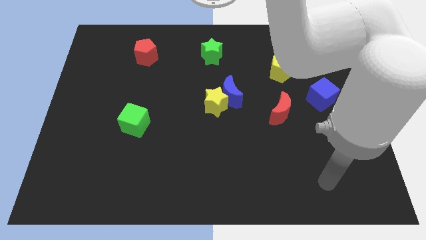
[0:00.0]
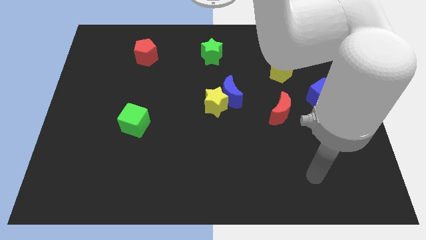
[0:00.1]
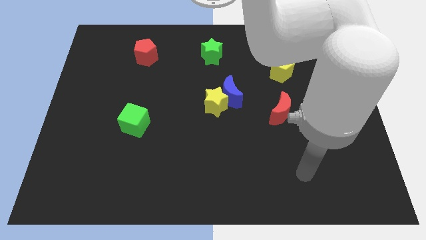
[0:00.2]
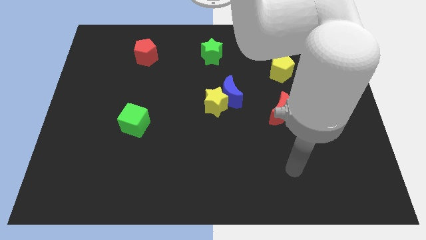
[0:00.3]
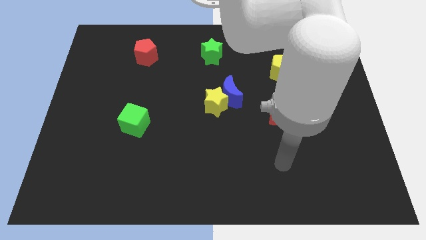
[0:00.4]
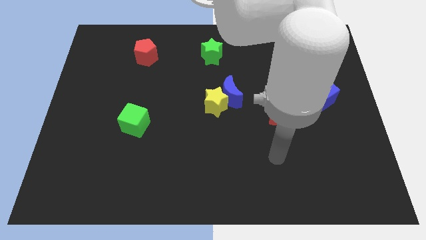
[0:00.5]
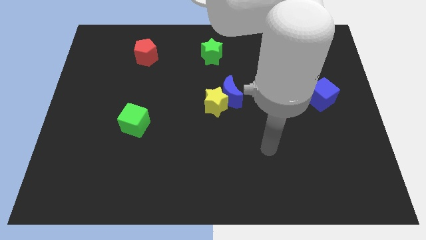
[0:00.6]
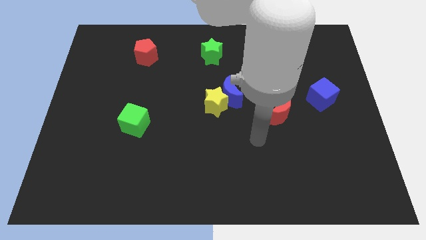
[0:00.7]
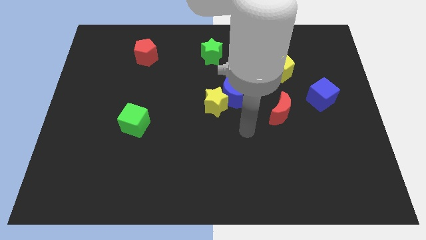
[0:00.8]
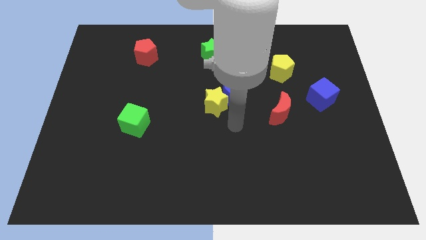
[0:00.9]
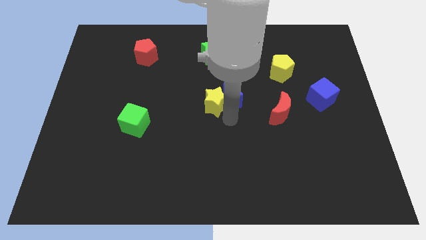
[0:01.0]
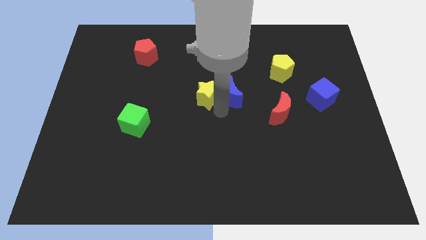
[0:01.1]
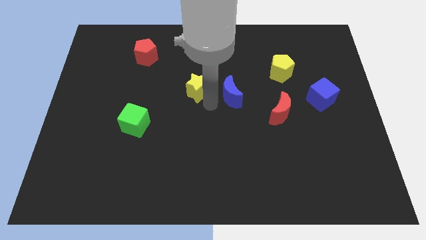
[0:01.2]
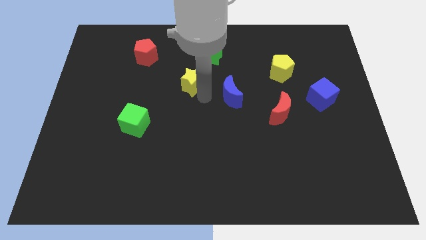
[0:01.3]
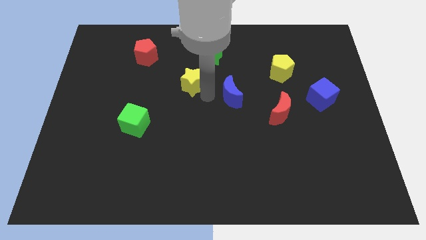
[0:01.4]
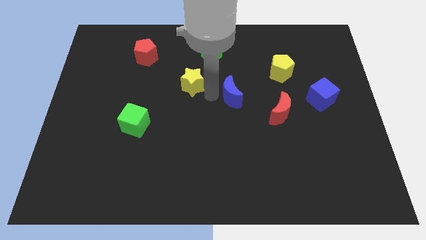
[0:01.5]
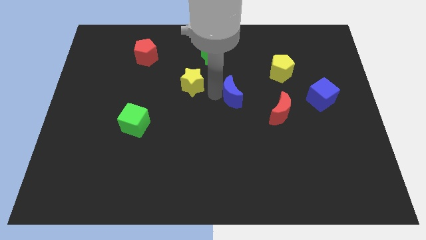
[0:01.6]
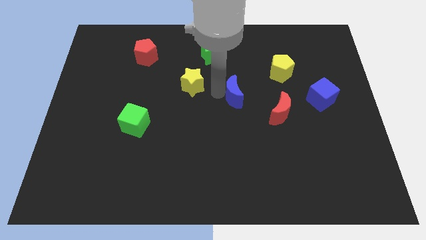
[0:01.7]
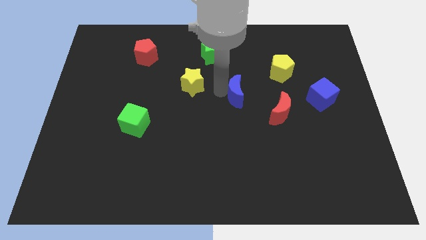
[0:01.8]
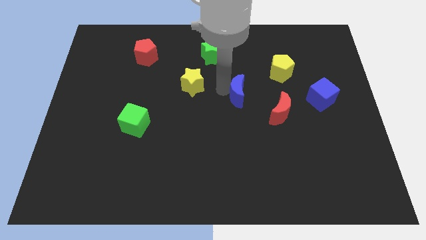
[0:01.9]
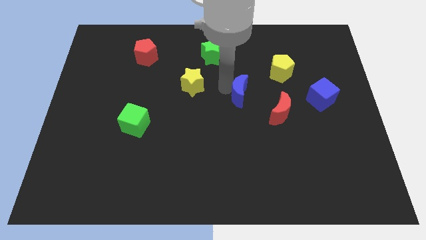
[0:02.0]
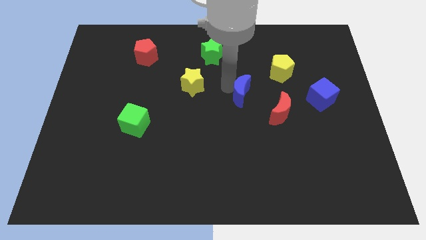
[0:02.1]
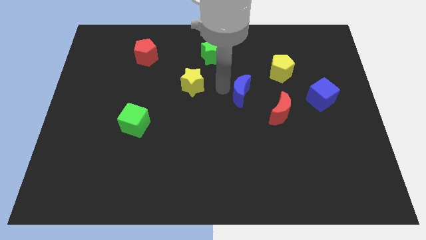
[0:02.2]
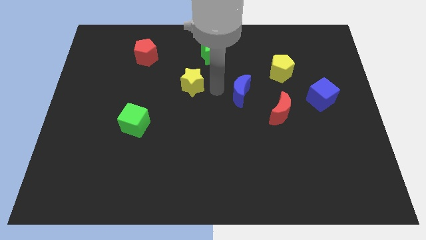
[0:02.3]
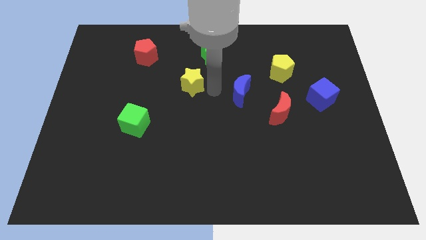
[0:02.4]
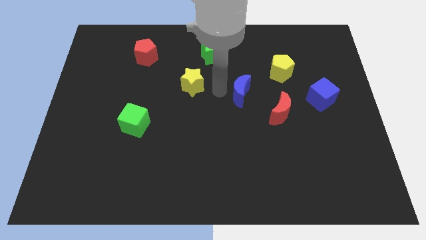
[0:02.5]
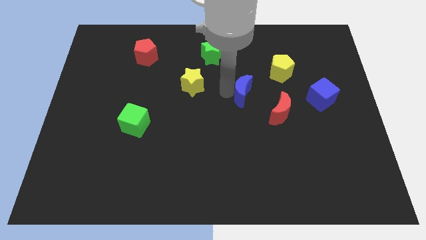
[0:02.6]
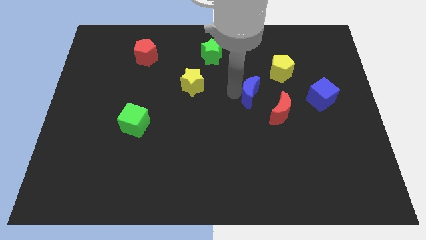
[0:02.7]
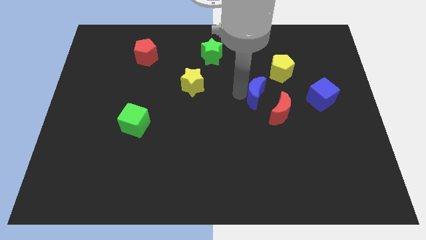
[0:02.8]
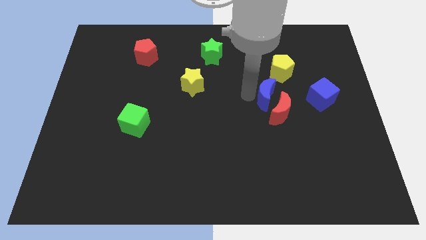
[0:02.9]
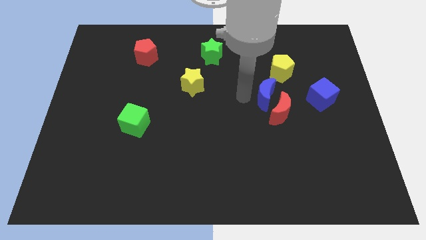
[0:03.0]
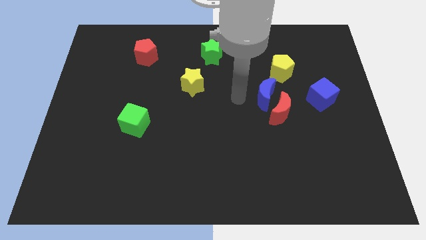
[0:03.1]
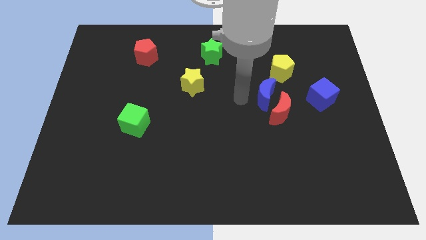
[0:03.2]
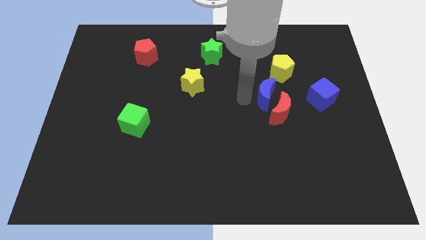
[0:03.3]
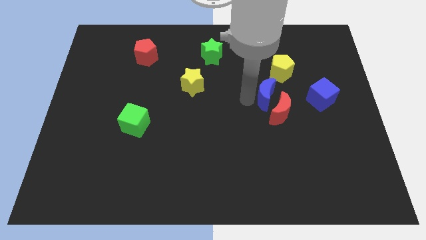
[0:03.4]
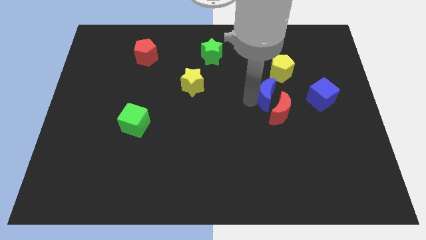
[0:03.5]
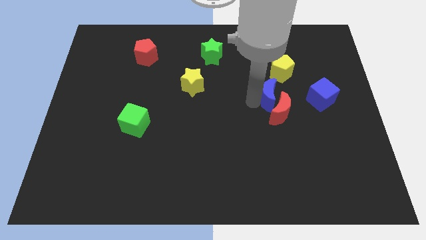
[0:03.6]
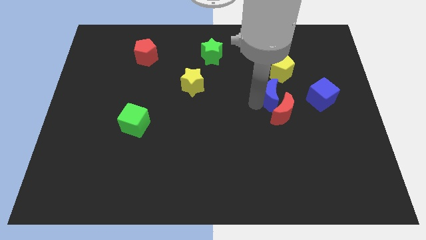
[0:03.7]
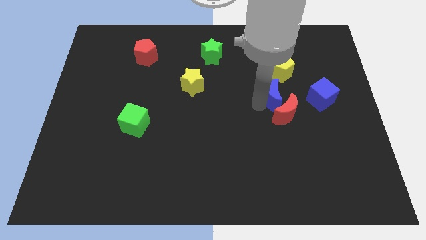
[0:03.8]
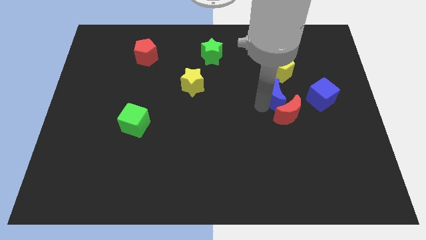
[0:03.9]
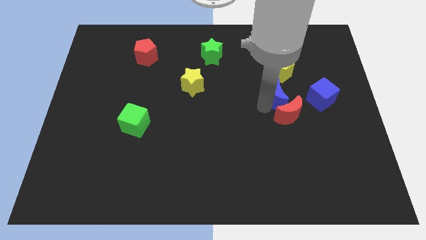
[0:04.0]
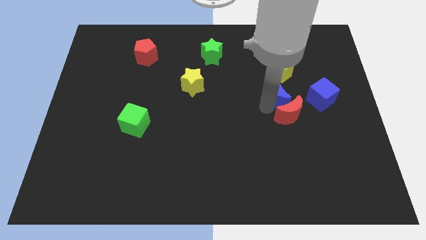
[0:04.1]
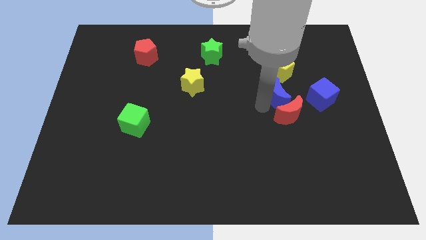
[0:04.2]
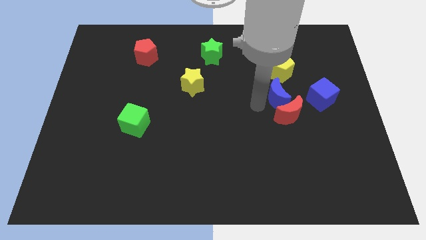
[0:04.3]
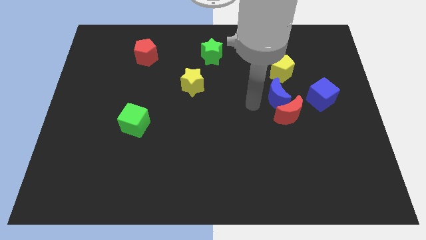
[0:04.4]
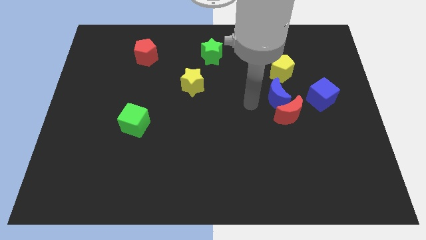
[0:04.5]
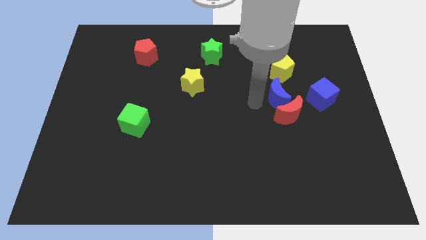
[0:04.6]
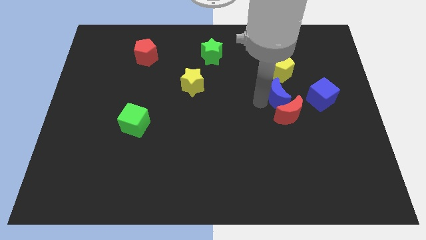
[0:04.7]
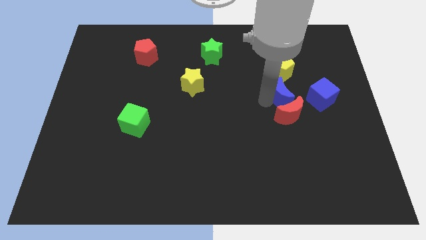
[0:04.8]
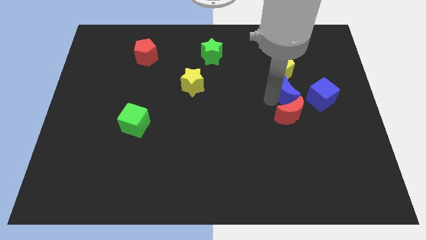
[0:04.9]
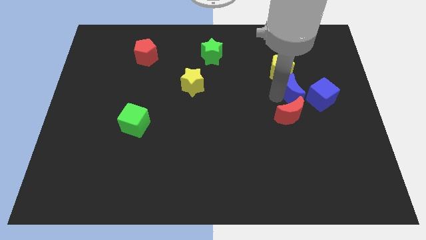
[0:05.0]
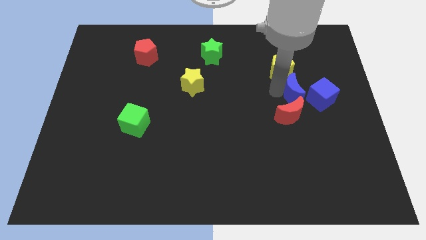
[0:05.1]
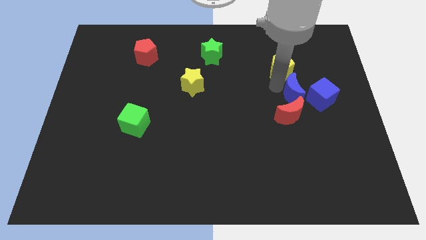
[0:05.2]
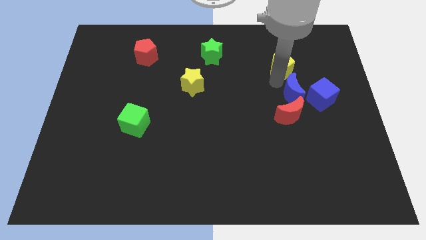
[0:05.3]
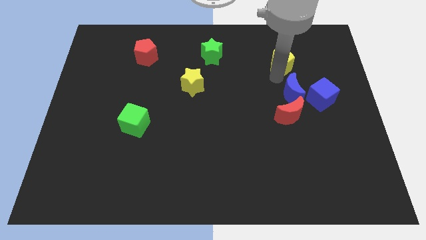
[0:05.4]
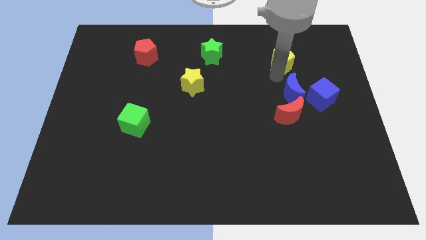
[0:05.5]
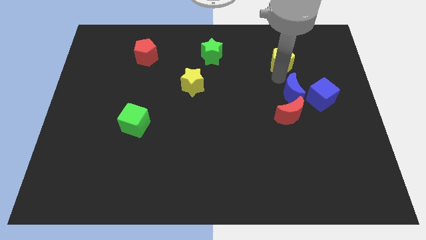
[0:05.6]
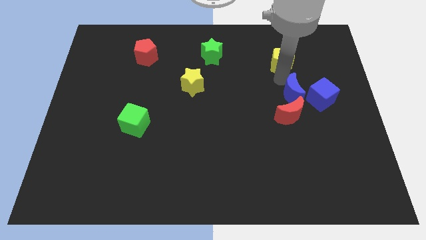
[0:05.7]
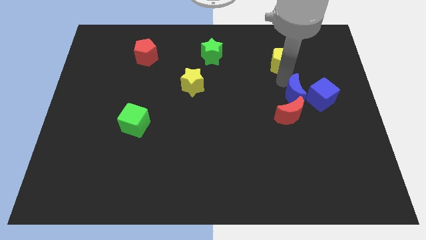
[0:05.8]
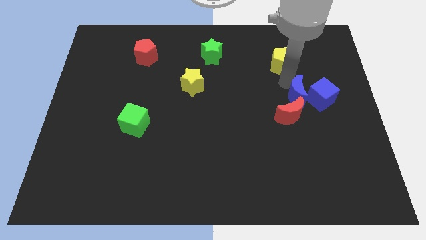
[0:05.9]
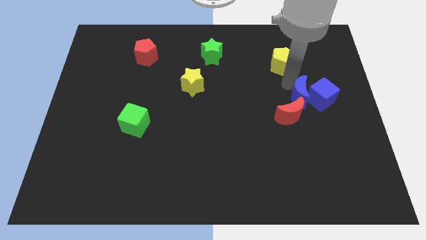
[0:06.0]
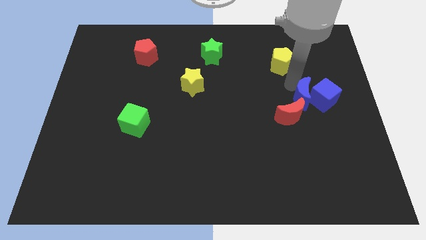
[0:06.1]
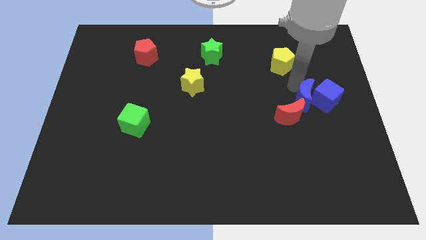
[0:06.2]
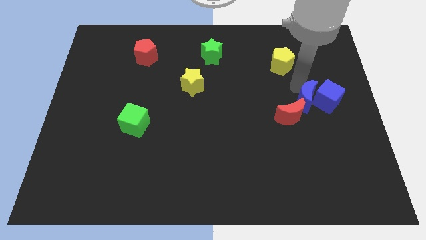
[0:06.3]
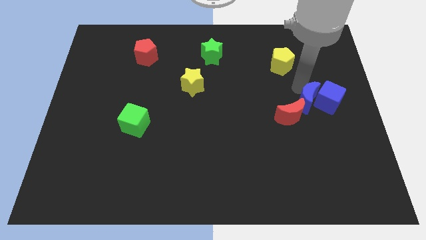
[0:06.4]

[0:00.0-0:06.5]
push the blue moon to the right side of the red moon

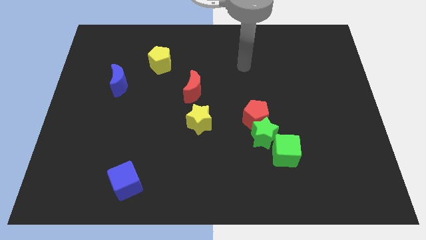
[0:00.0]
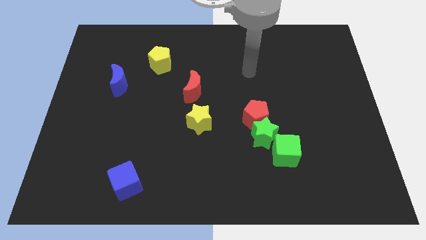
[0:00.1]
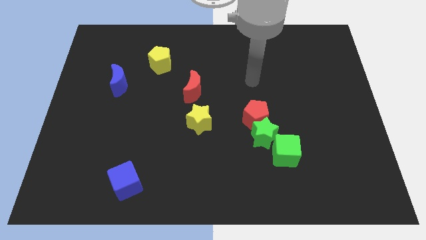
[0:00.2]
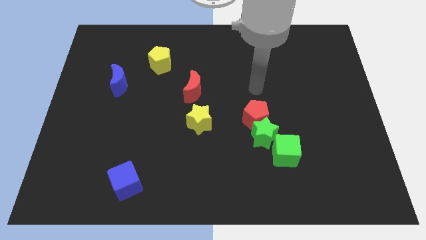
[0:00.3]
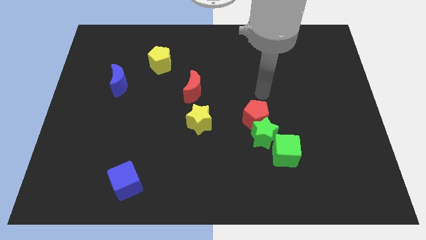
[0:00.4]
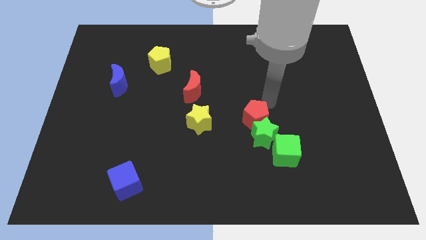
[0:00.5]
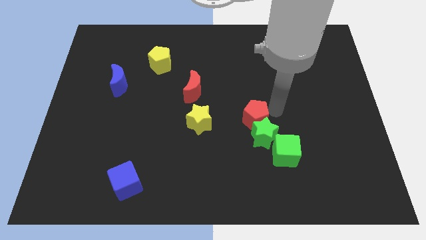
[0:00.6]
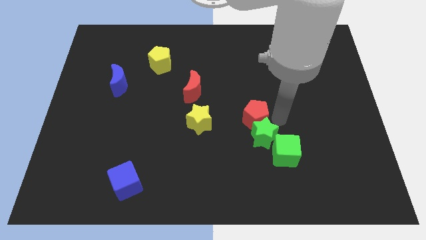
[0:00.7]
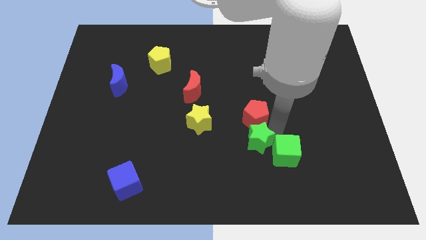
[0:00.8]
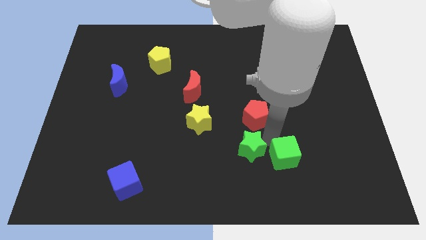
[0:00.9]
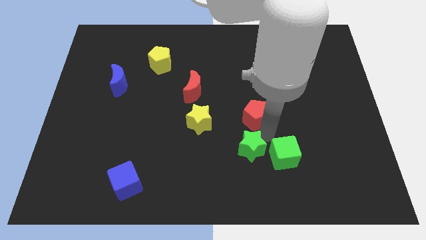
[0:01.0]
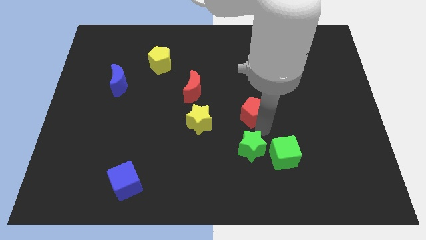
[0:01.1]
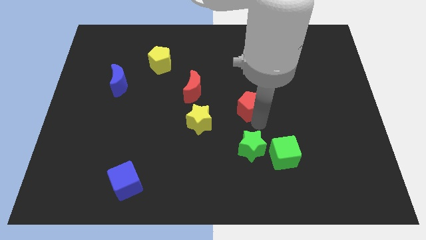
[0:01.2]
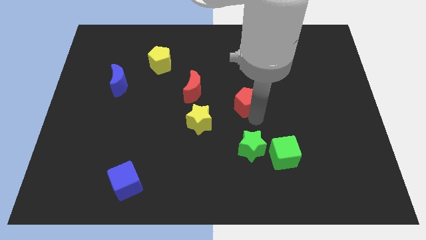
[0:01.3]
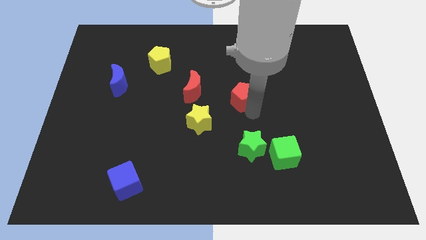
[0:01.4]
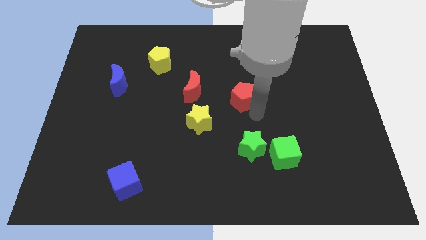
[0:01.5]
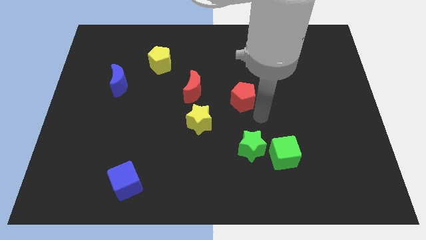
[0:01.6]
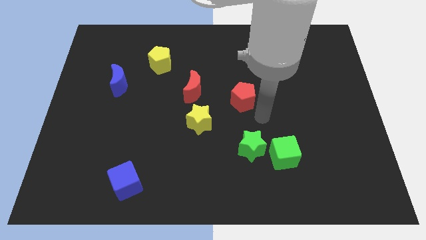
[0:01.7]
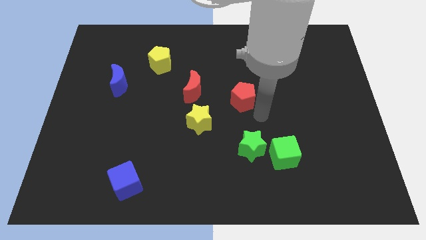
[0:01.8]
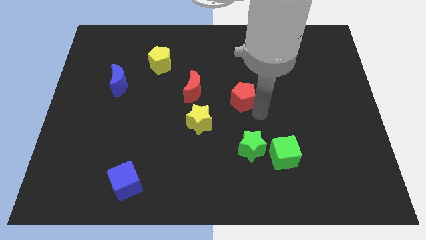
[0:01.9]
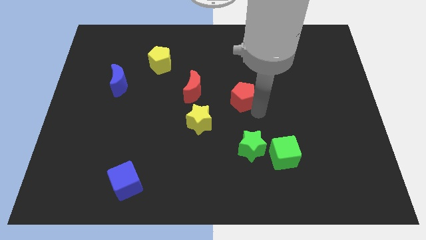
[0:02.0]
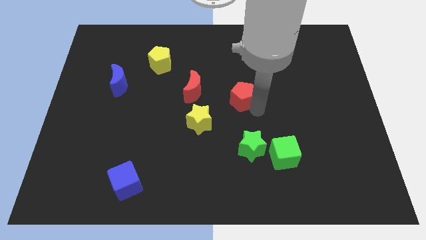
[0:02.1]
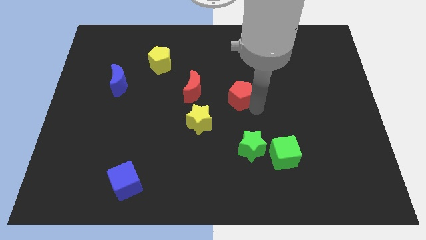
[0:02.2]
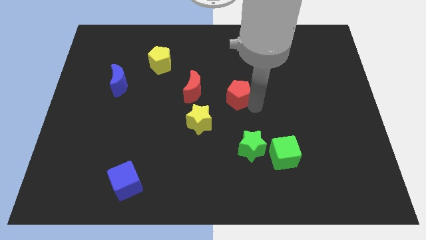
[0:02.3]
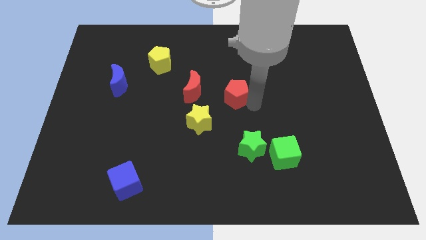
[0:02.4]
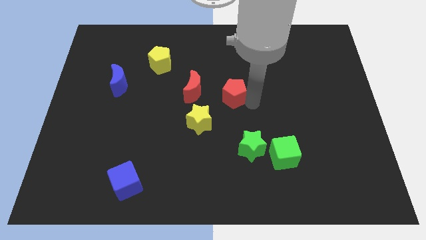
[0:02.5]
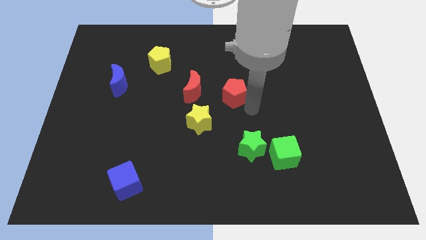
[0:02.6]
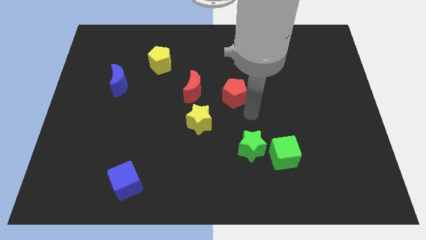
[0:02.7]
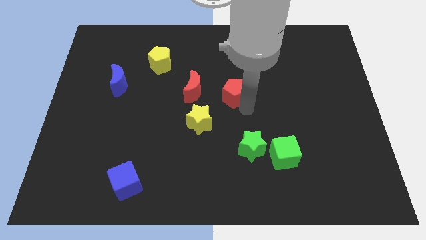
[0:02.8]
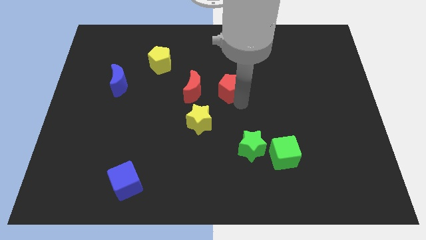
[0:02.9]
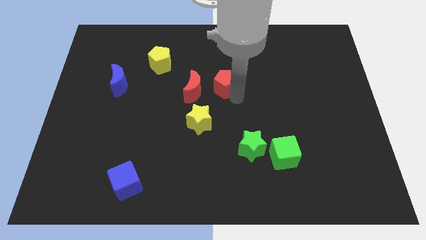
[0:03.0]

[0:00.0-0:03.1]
slide the red pentagon diagonally up and to the right of the red moon
